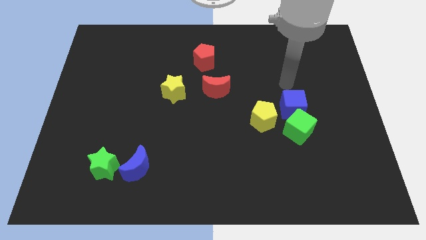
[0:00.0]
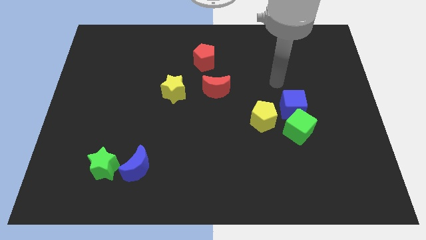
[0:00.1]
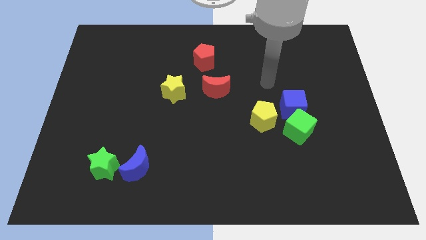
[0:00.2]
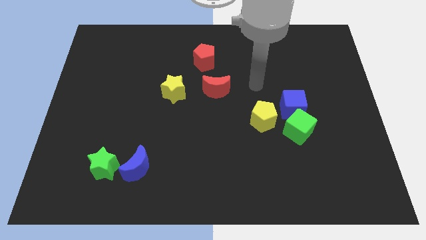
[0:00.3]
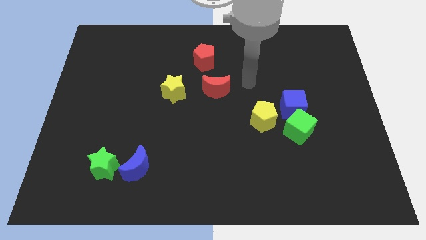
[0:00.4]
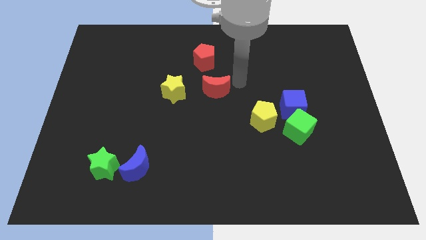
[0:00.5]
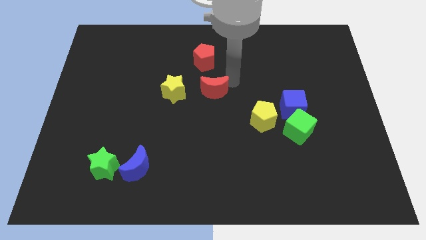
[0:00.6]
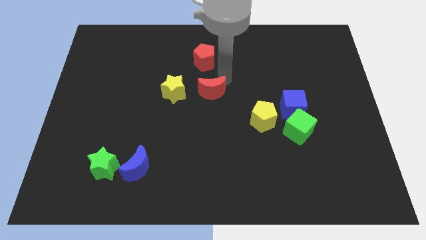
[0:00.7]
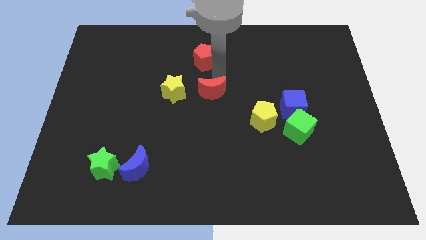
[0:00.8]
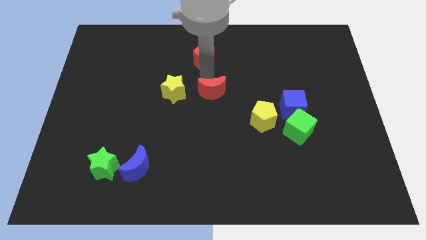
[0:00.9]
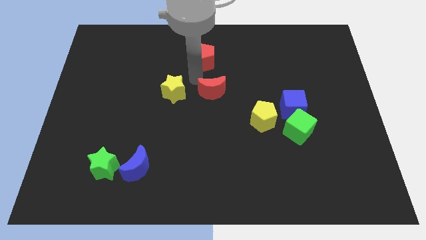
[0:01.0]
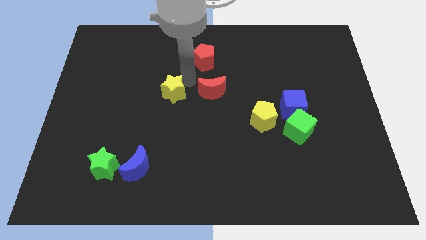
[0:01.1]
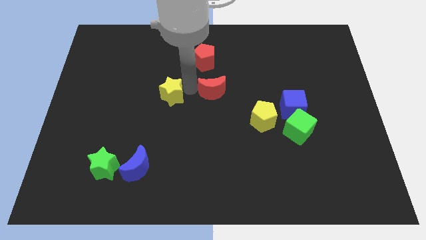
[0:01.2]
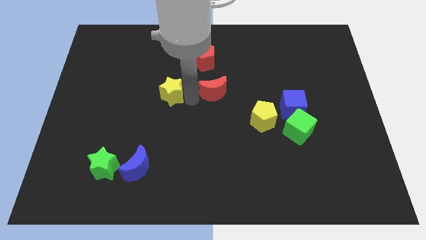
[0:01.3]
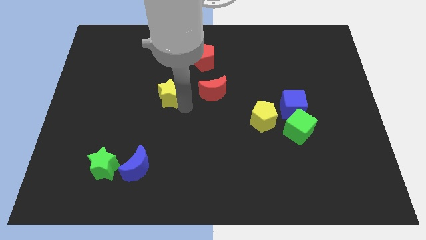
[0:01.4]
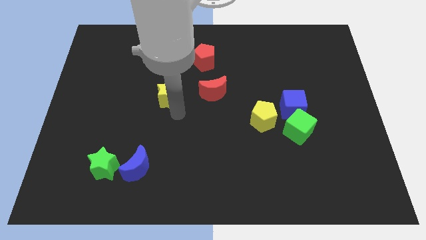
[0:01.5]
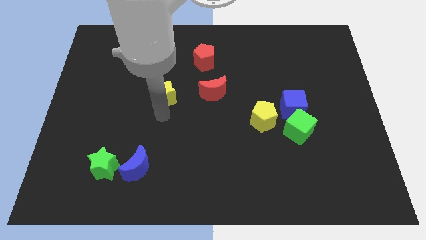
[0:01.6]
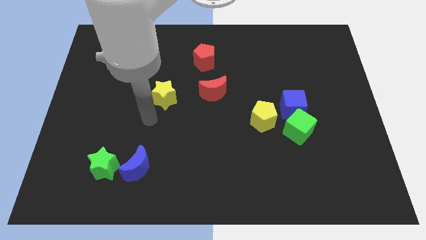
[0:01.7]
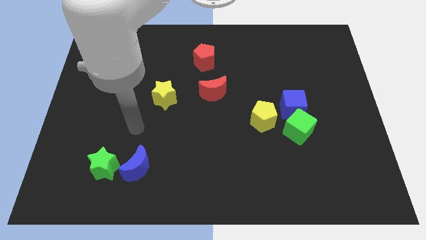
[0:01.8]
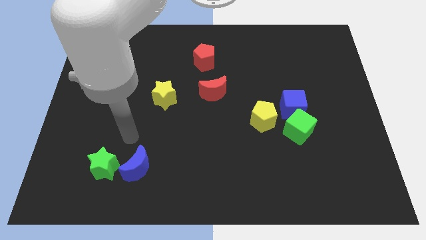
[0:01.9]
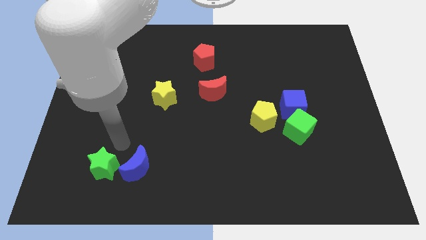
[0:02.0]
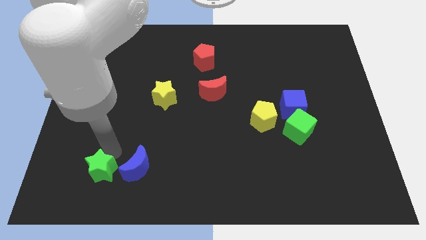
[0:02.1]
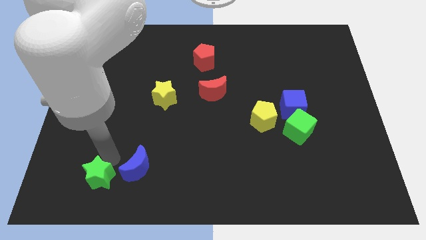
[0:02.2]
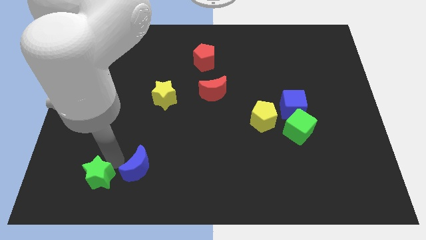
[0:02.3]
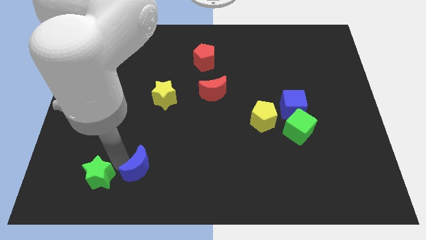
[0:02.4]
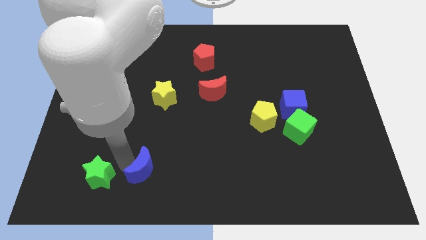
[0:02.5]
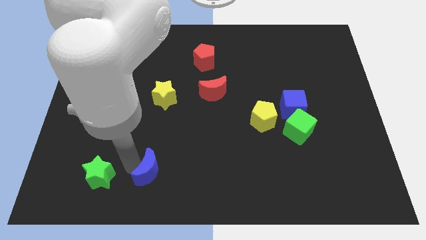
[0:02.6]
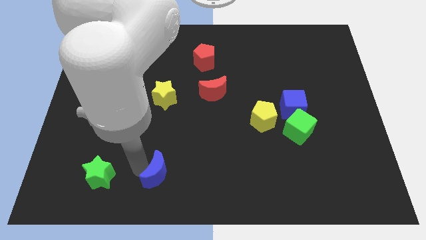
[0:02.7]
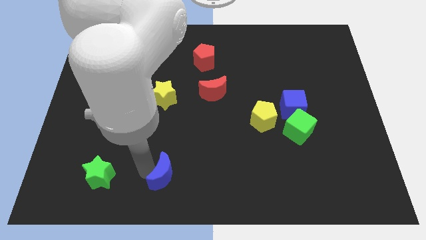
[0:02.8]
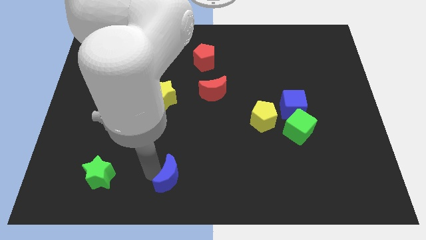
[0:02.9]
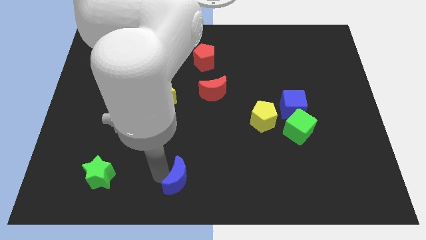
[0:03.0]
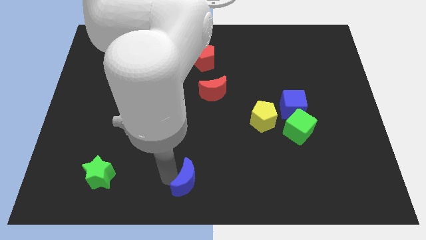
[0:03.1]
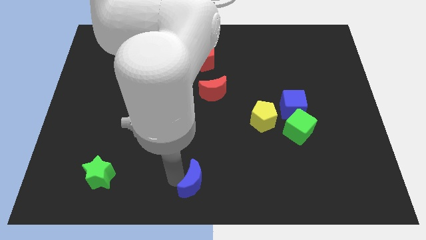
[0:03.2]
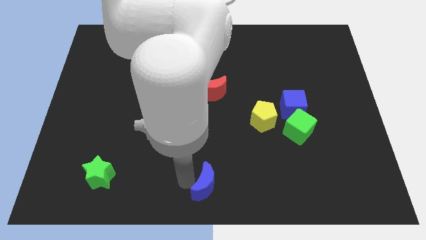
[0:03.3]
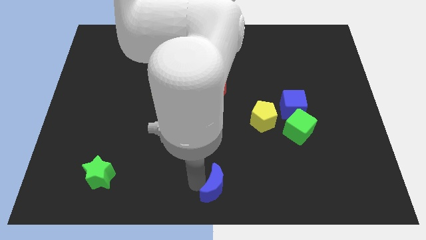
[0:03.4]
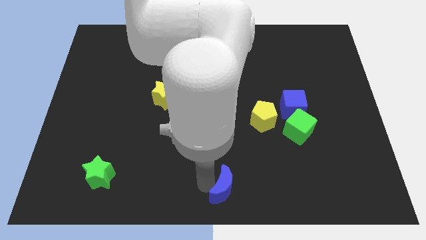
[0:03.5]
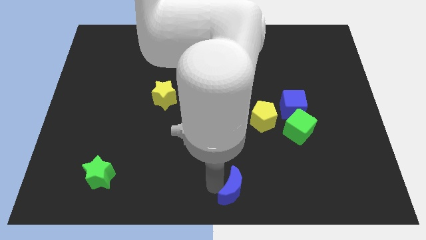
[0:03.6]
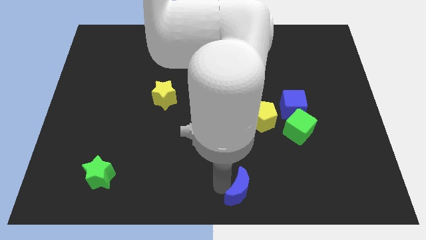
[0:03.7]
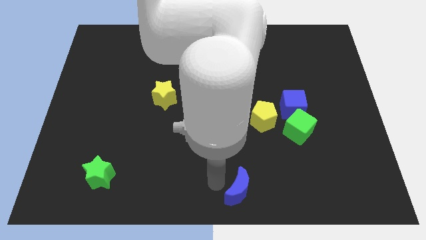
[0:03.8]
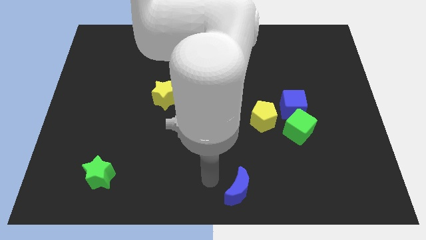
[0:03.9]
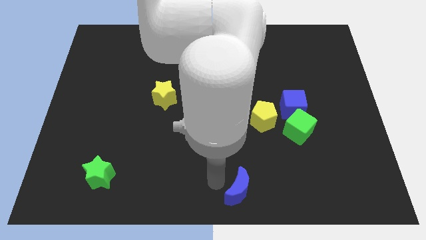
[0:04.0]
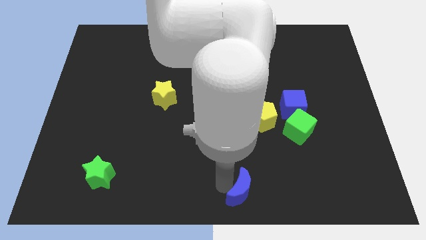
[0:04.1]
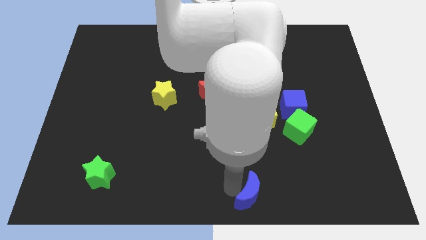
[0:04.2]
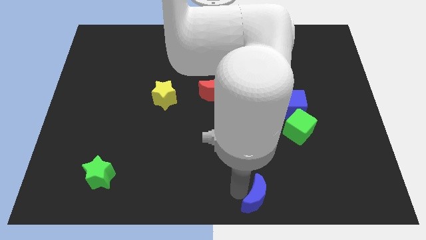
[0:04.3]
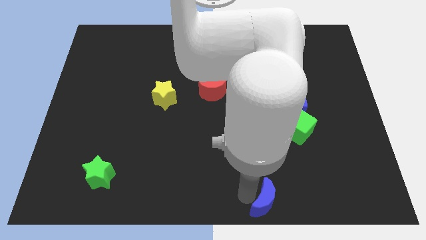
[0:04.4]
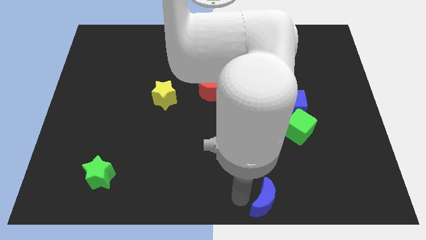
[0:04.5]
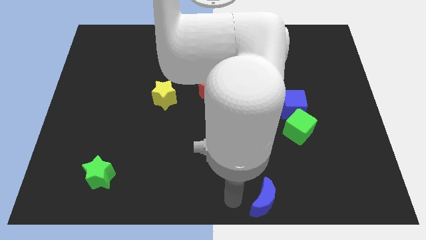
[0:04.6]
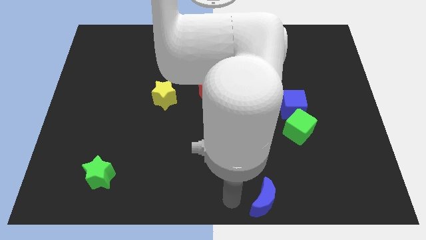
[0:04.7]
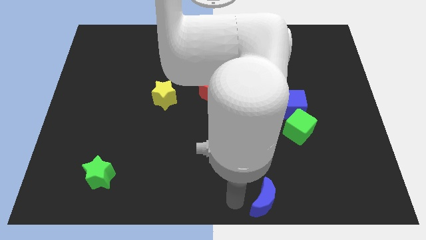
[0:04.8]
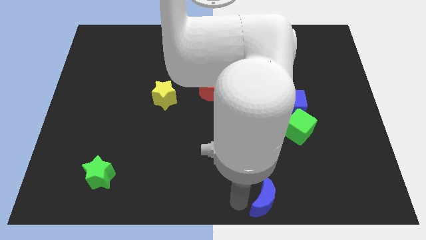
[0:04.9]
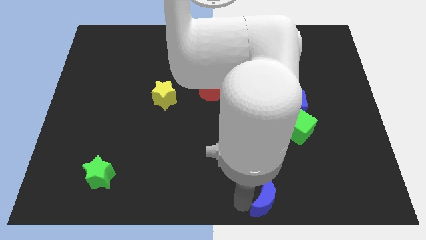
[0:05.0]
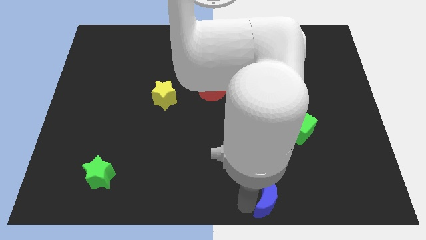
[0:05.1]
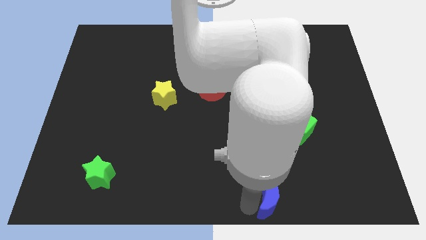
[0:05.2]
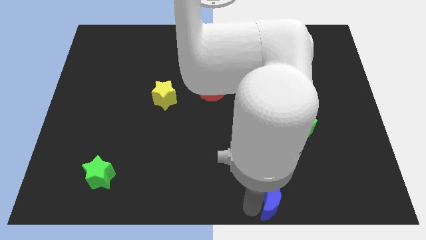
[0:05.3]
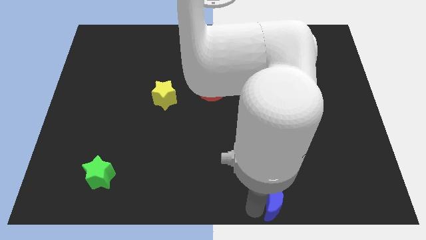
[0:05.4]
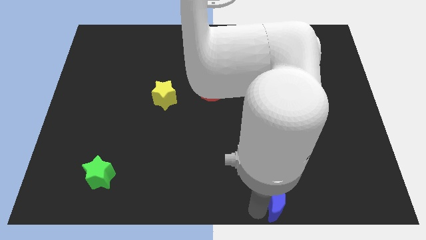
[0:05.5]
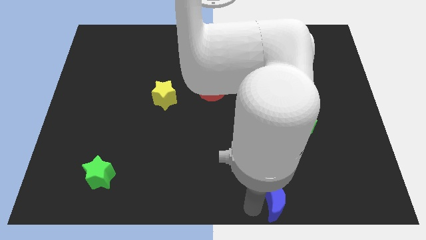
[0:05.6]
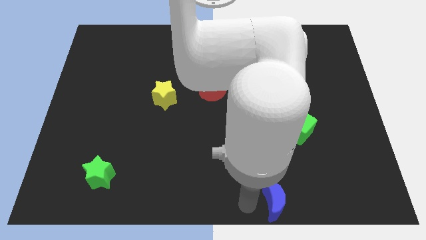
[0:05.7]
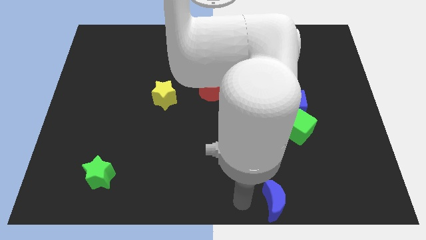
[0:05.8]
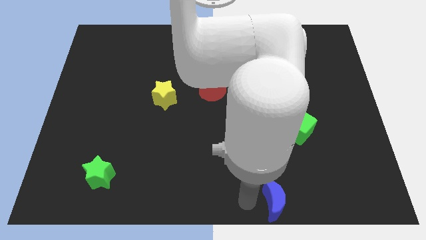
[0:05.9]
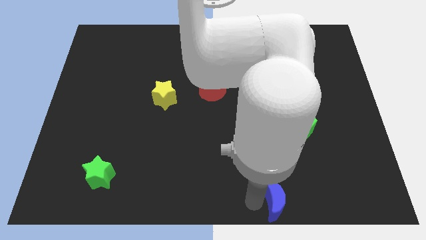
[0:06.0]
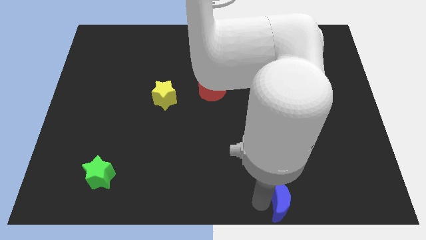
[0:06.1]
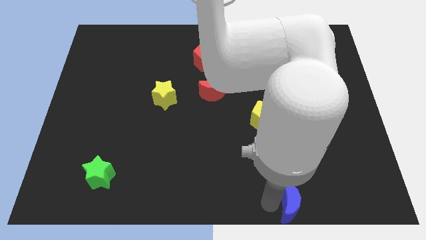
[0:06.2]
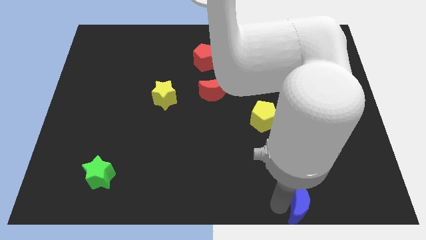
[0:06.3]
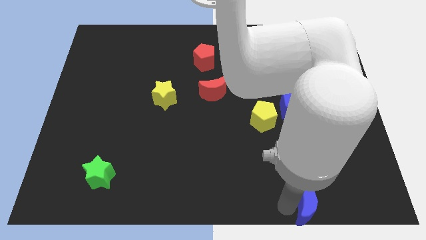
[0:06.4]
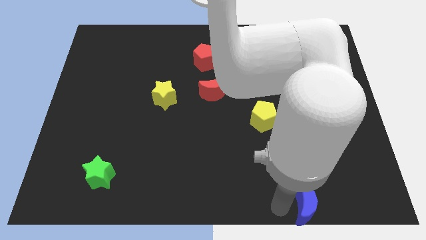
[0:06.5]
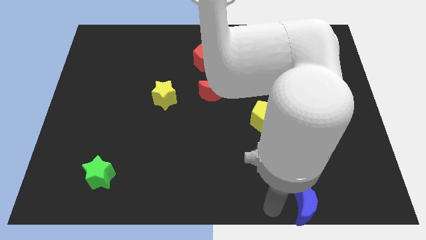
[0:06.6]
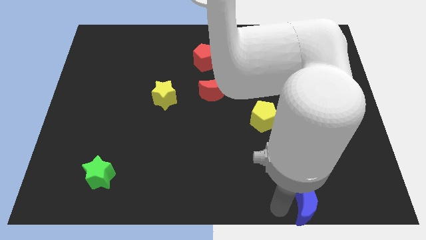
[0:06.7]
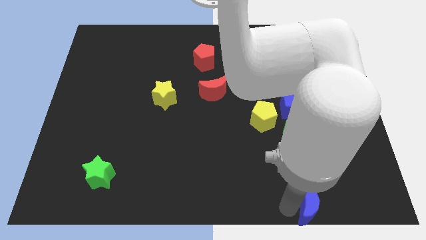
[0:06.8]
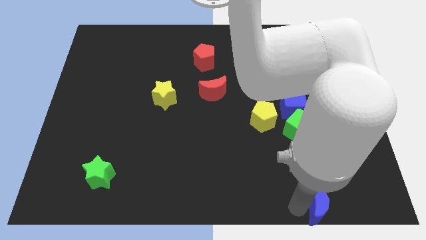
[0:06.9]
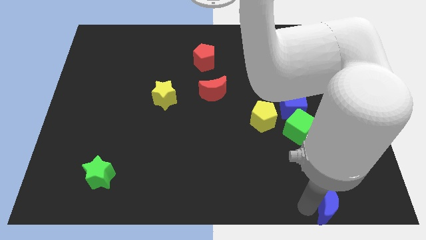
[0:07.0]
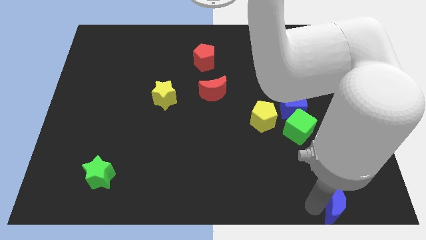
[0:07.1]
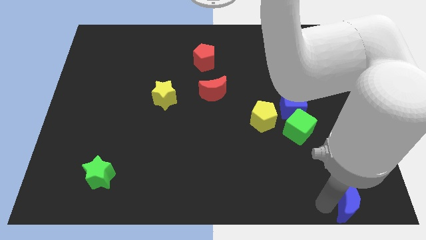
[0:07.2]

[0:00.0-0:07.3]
put the blue moon to the bottom right of the board
